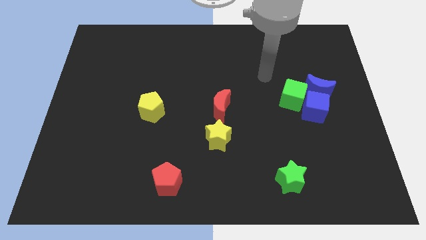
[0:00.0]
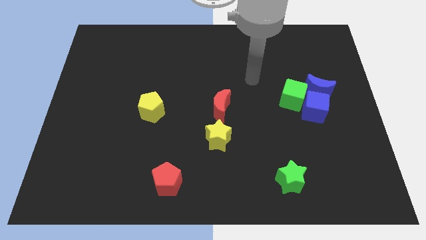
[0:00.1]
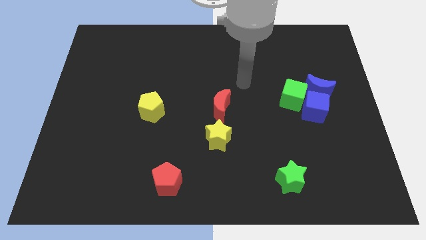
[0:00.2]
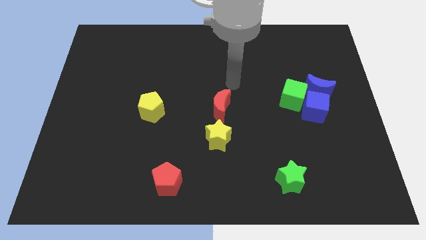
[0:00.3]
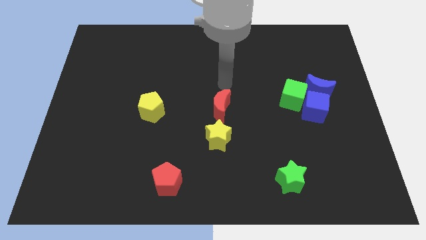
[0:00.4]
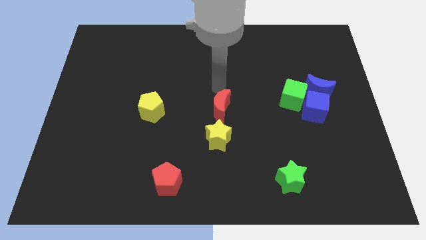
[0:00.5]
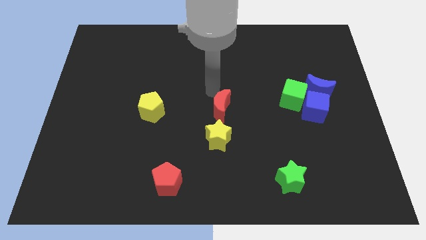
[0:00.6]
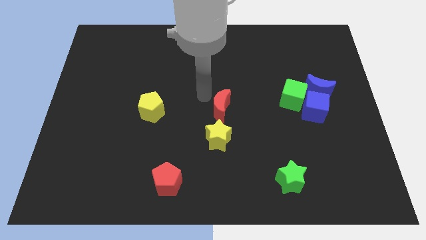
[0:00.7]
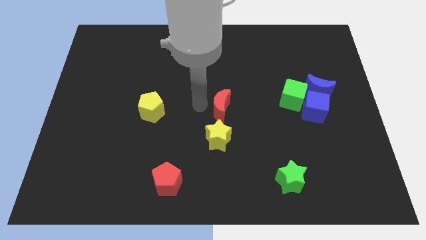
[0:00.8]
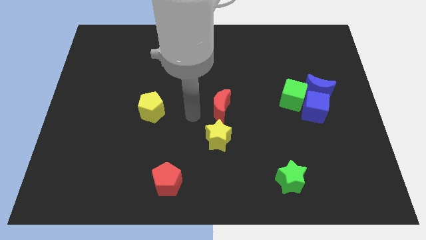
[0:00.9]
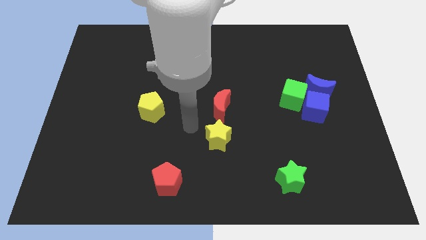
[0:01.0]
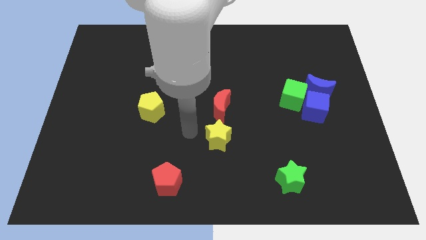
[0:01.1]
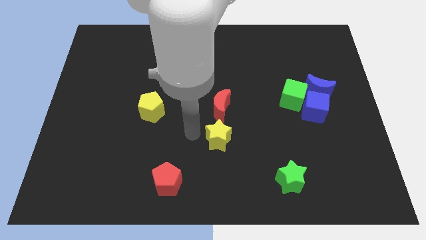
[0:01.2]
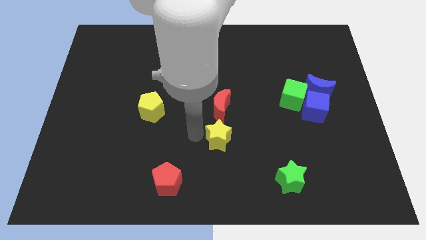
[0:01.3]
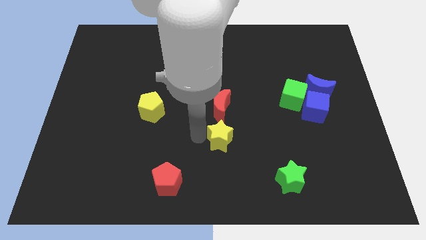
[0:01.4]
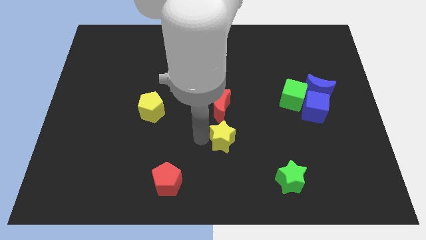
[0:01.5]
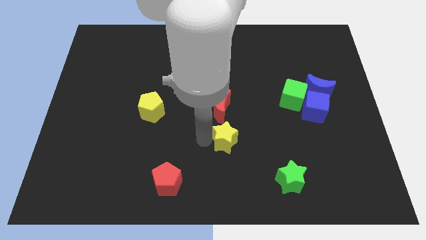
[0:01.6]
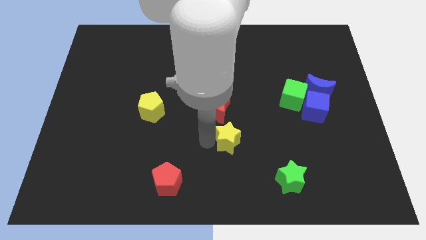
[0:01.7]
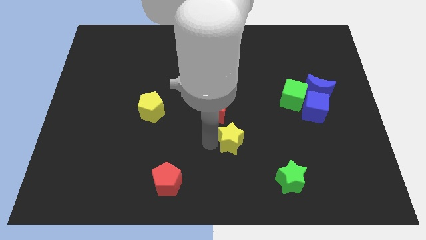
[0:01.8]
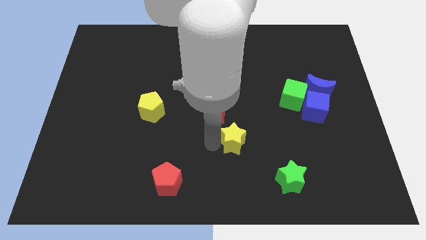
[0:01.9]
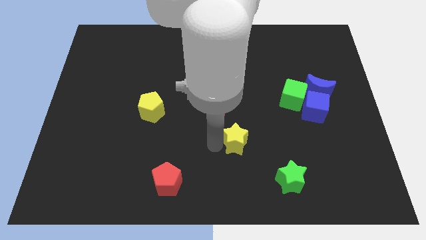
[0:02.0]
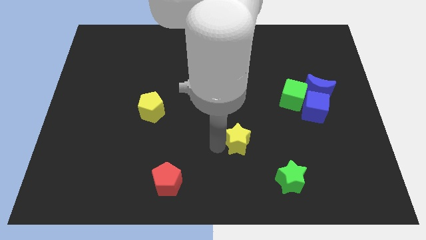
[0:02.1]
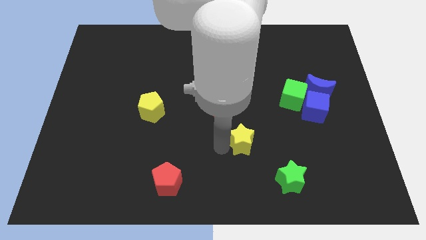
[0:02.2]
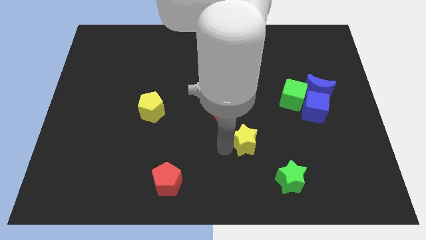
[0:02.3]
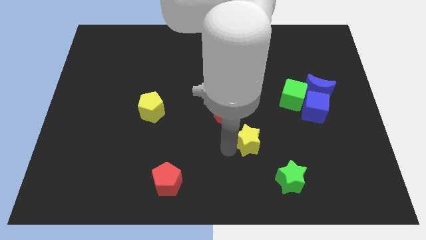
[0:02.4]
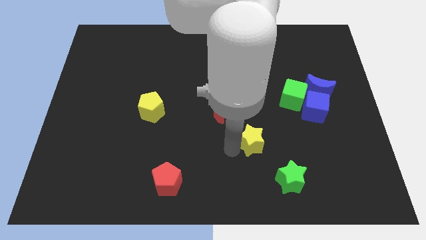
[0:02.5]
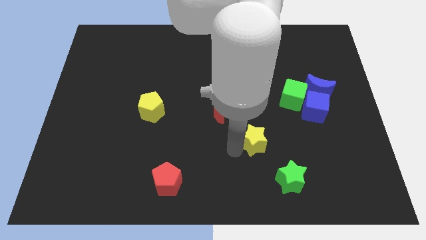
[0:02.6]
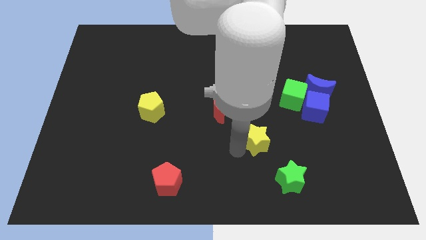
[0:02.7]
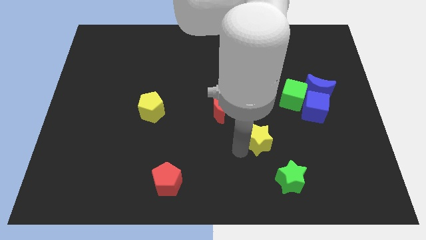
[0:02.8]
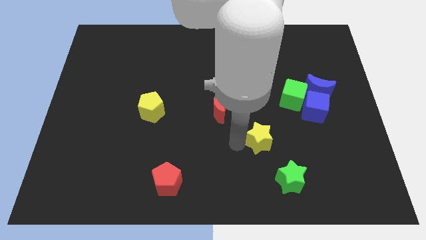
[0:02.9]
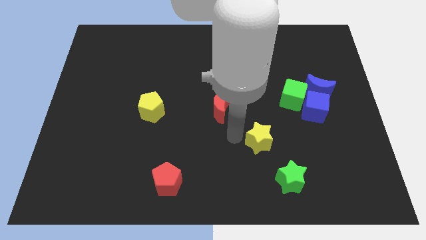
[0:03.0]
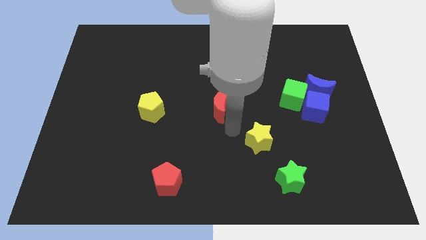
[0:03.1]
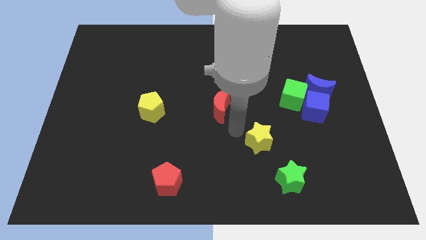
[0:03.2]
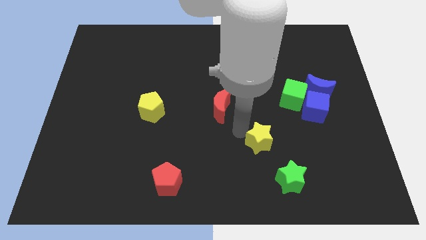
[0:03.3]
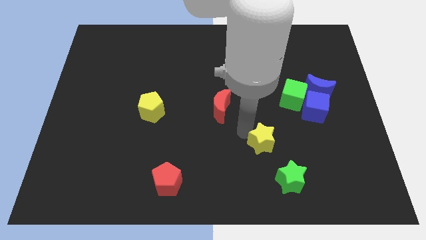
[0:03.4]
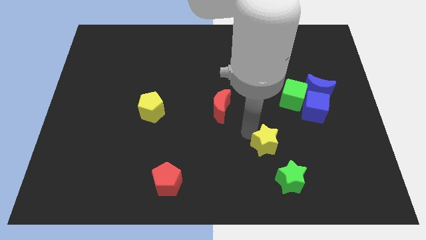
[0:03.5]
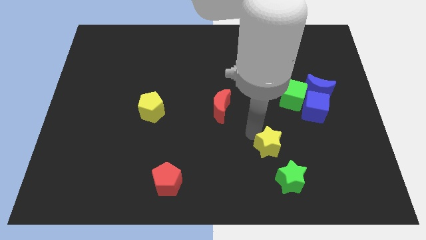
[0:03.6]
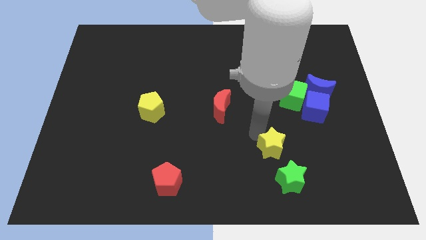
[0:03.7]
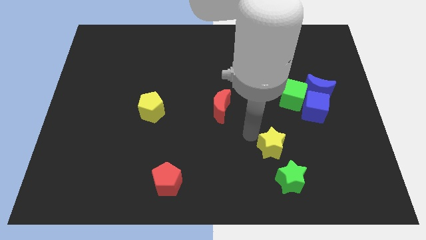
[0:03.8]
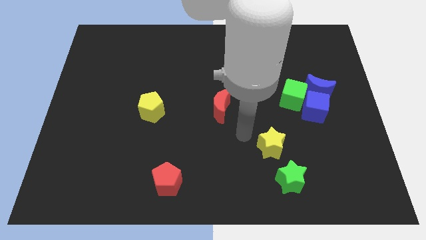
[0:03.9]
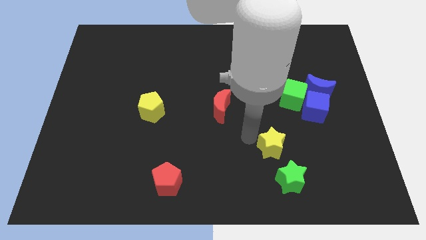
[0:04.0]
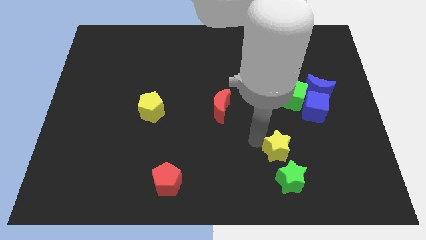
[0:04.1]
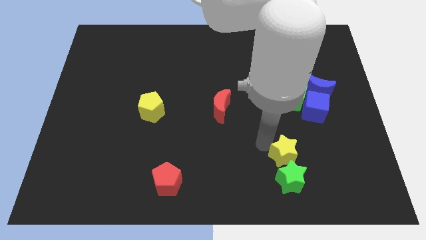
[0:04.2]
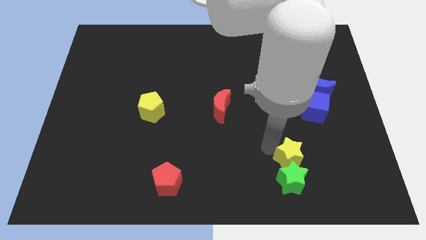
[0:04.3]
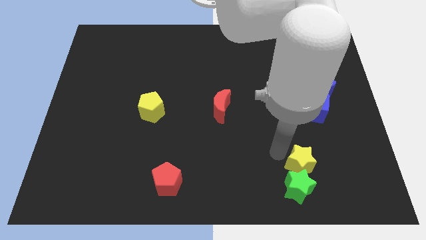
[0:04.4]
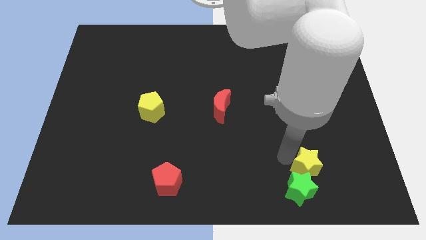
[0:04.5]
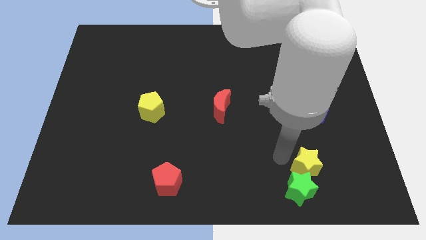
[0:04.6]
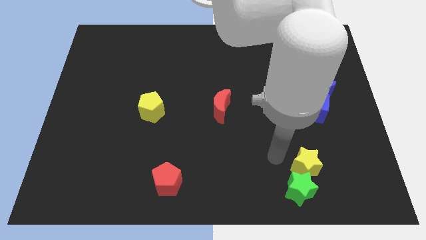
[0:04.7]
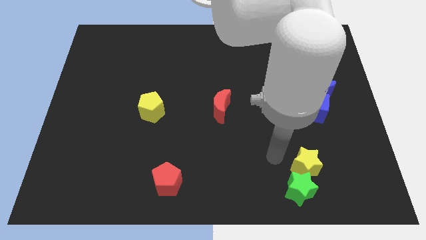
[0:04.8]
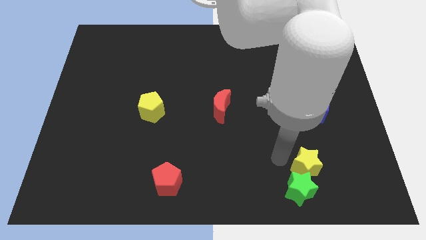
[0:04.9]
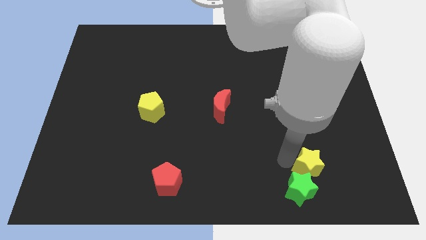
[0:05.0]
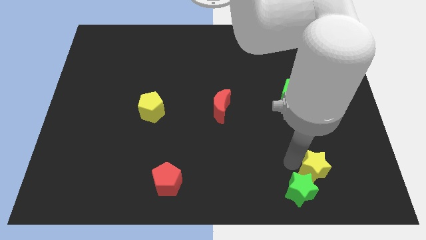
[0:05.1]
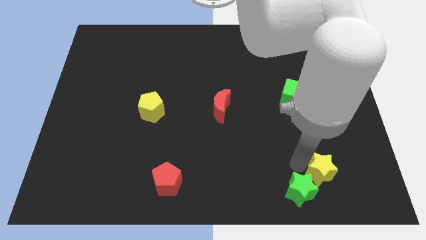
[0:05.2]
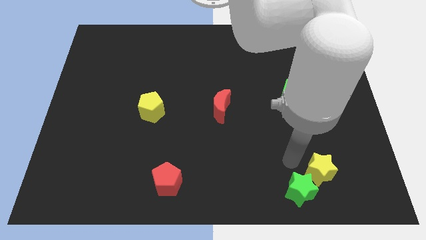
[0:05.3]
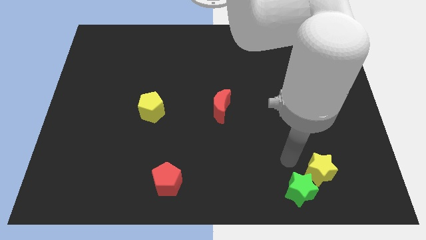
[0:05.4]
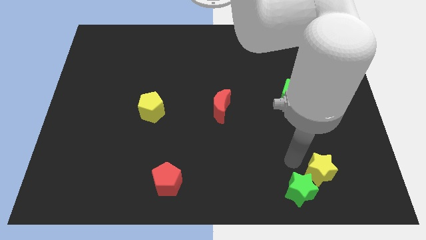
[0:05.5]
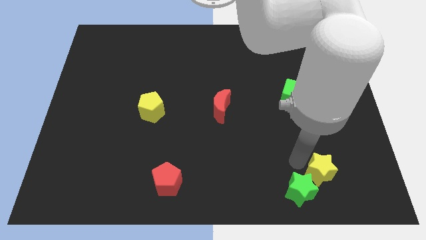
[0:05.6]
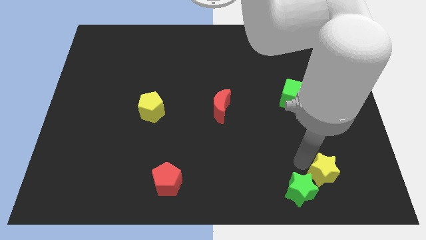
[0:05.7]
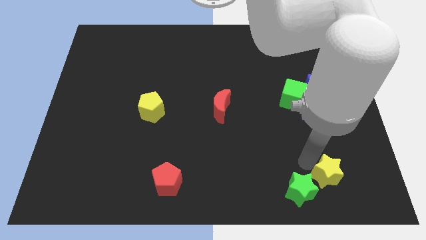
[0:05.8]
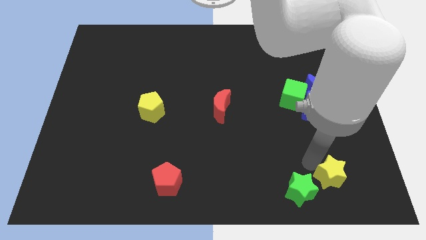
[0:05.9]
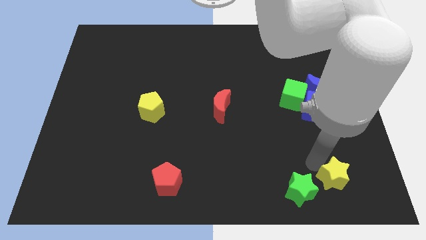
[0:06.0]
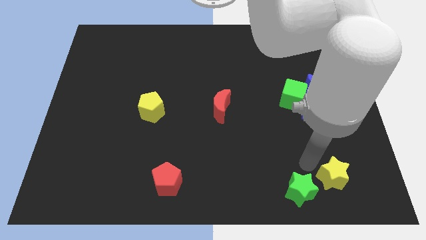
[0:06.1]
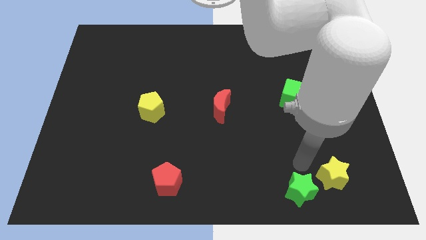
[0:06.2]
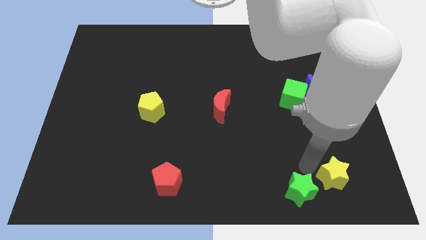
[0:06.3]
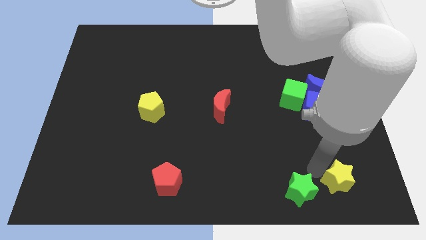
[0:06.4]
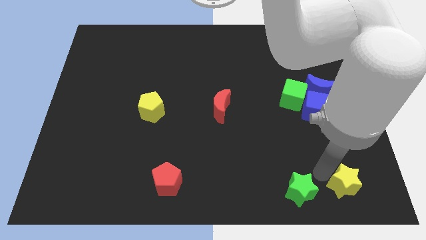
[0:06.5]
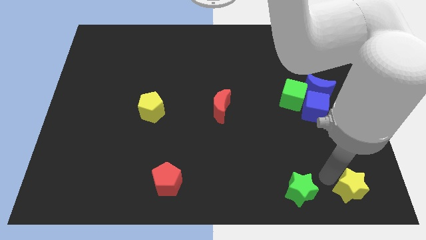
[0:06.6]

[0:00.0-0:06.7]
push the yellow star to the bottom right corner
